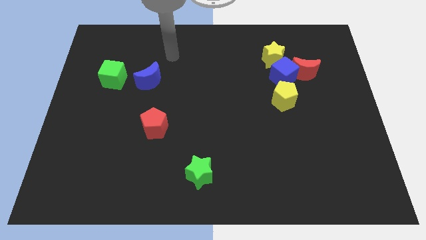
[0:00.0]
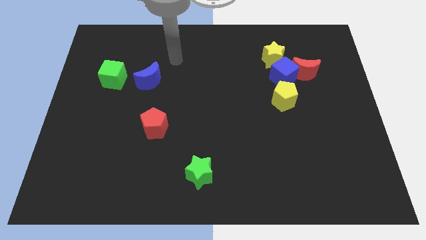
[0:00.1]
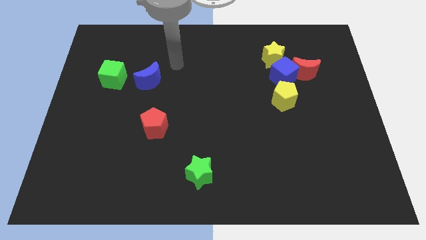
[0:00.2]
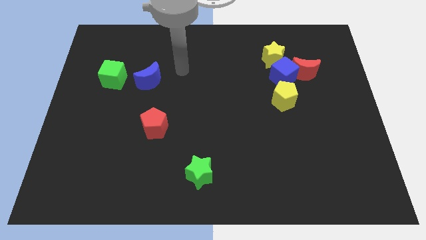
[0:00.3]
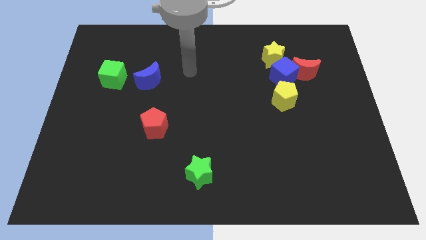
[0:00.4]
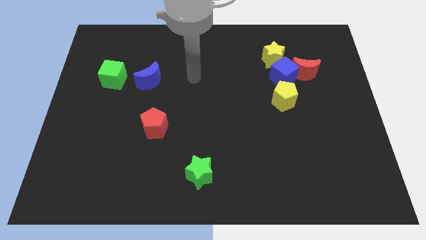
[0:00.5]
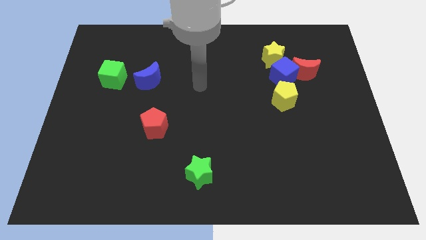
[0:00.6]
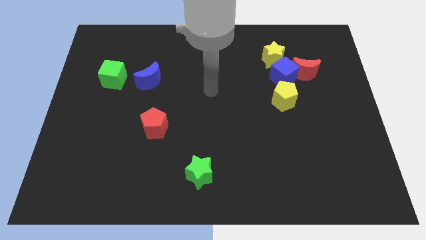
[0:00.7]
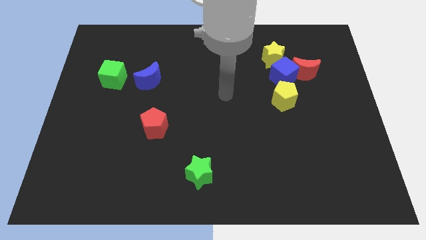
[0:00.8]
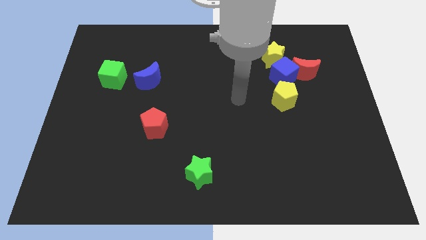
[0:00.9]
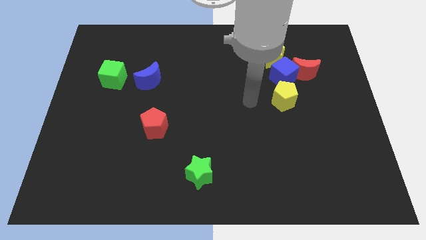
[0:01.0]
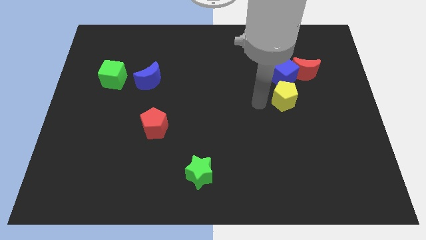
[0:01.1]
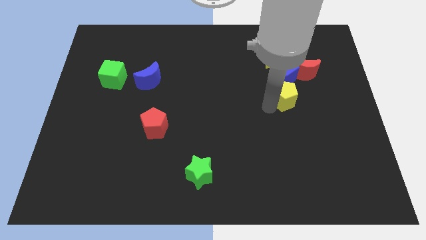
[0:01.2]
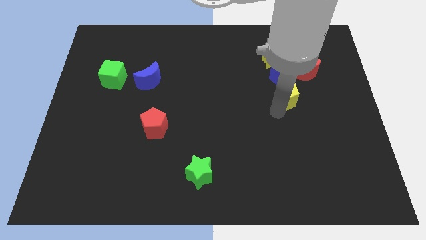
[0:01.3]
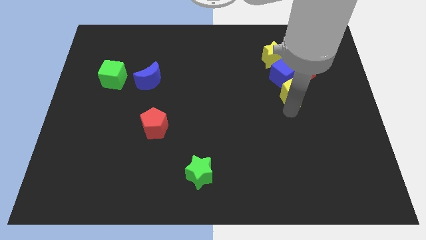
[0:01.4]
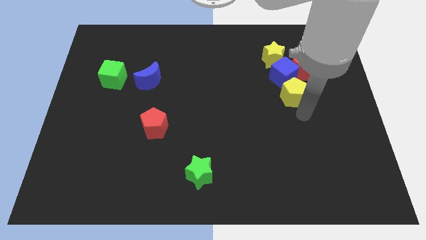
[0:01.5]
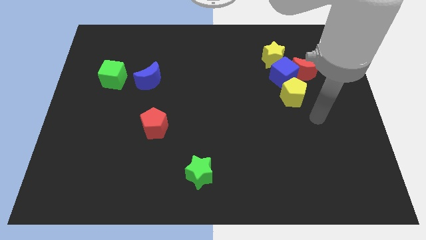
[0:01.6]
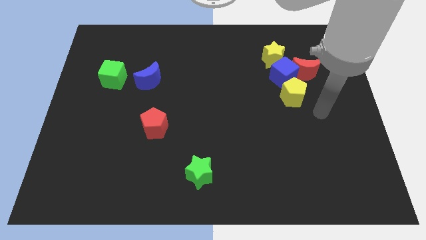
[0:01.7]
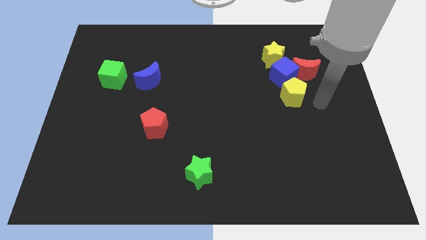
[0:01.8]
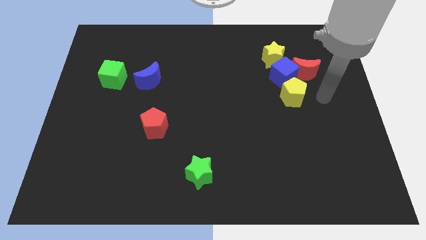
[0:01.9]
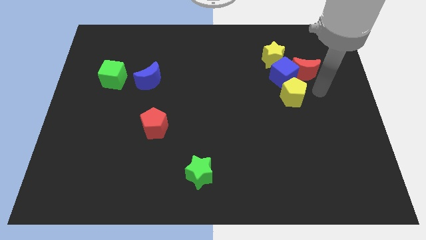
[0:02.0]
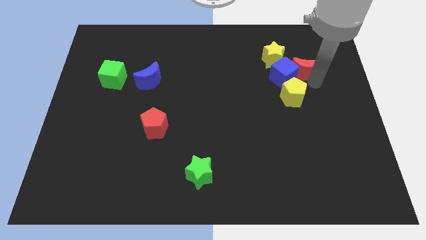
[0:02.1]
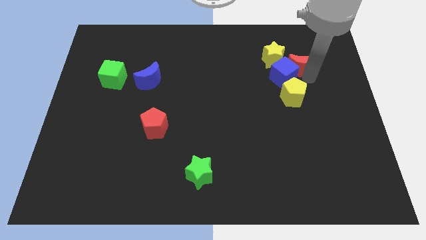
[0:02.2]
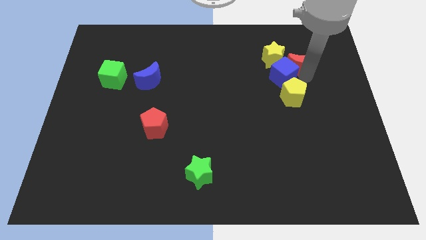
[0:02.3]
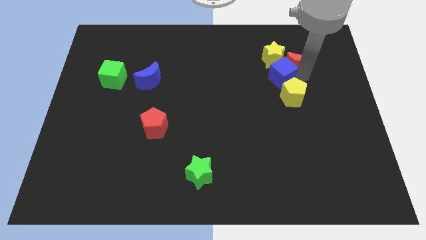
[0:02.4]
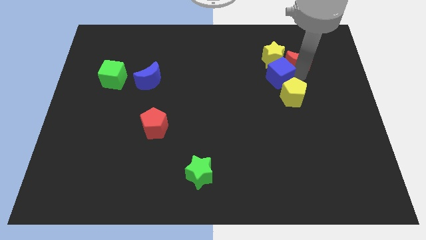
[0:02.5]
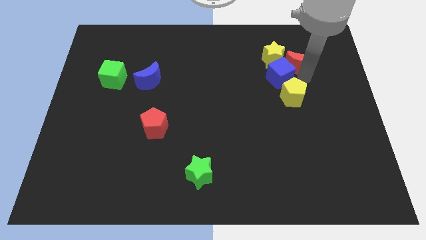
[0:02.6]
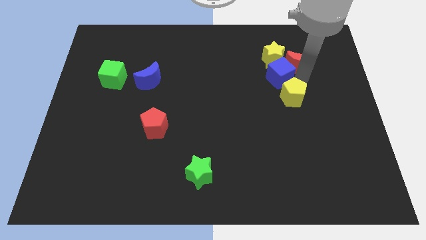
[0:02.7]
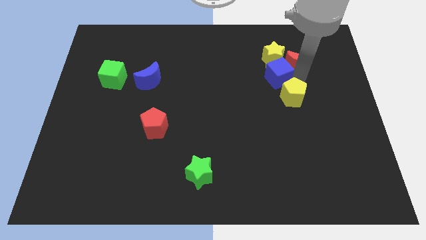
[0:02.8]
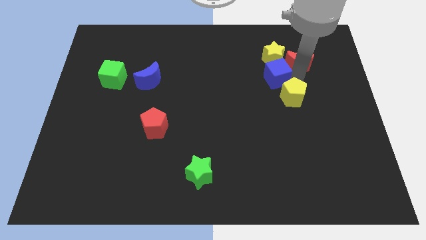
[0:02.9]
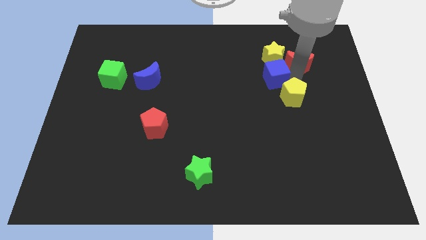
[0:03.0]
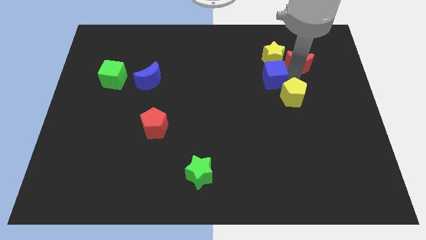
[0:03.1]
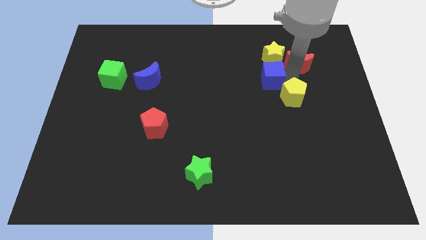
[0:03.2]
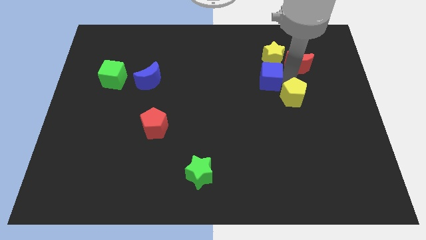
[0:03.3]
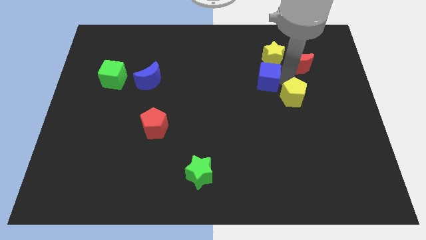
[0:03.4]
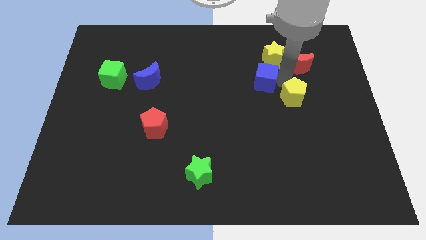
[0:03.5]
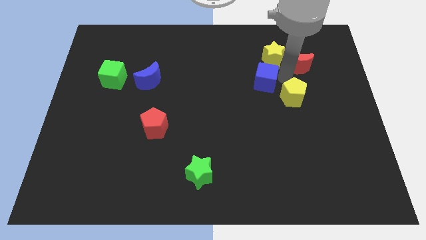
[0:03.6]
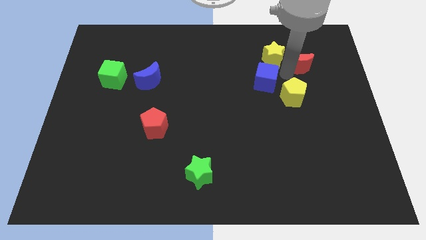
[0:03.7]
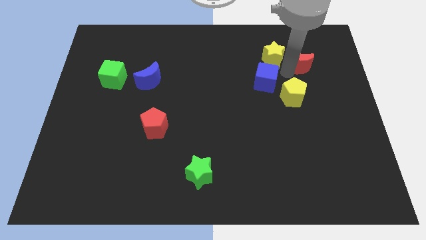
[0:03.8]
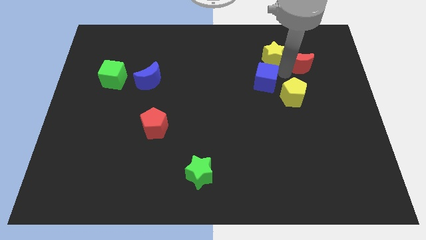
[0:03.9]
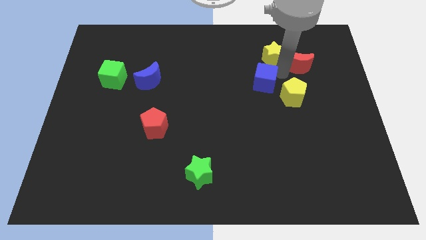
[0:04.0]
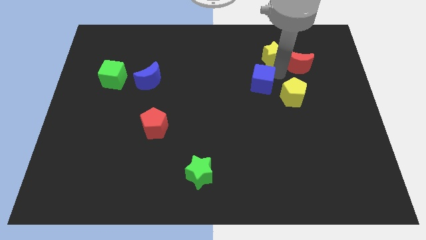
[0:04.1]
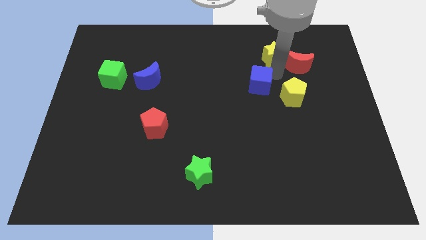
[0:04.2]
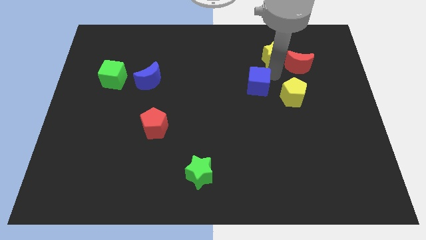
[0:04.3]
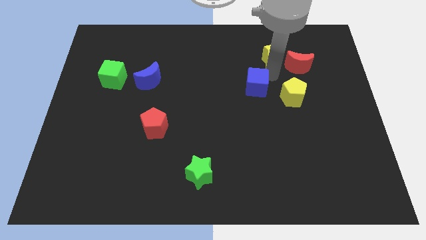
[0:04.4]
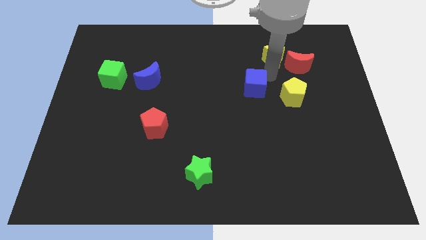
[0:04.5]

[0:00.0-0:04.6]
separate the blue cube from the red moon, yellow star, and yellow pentagon

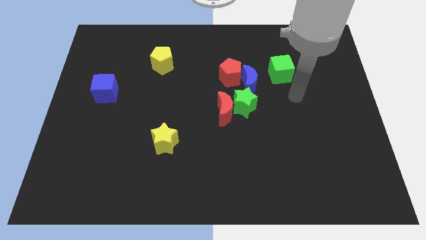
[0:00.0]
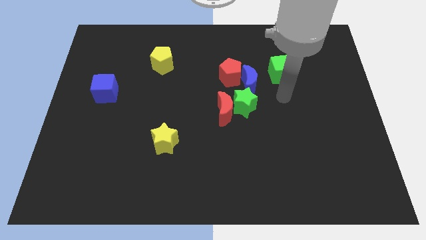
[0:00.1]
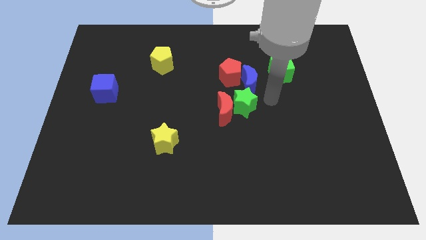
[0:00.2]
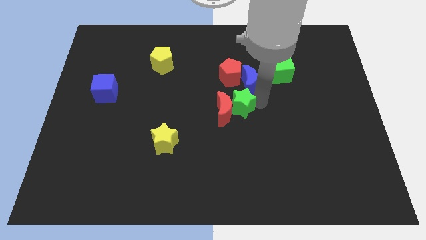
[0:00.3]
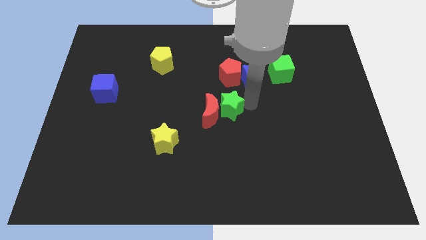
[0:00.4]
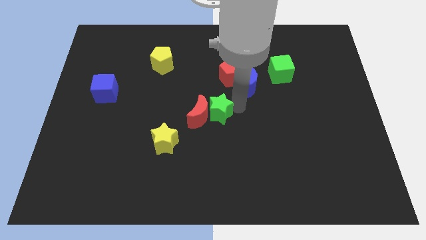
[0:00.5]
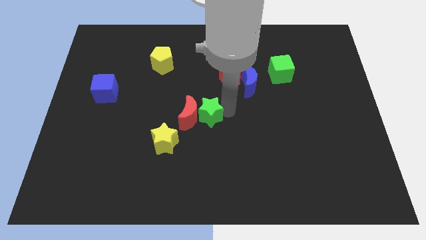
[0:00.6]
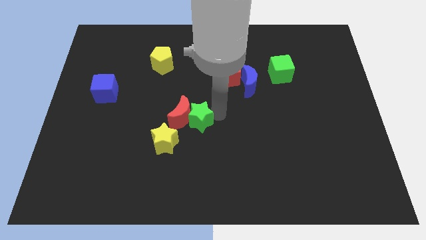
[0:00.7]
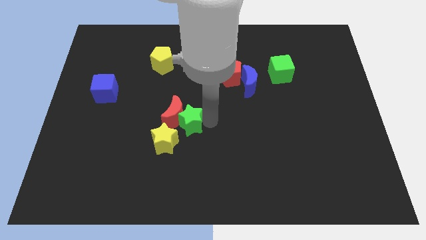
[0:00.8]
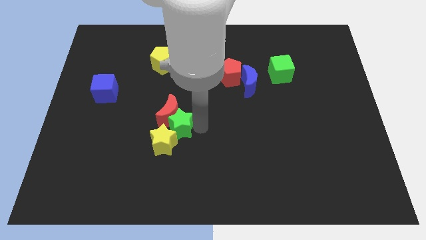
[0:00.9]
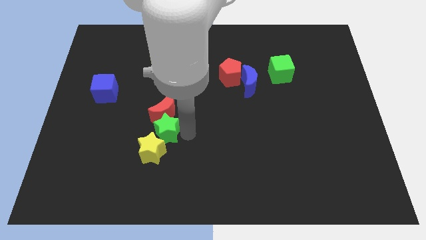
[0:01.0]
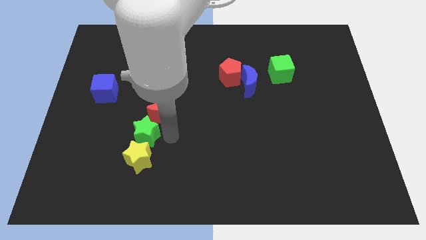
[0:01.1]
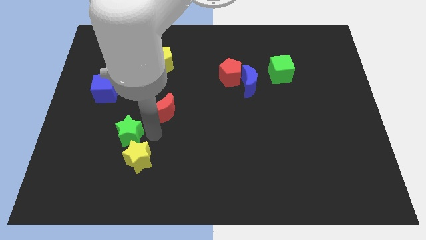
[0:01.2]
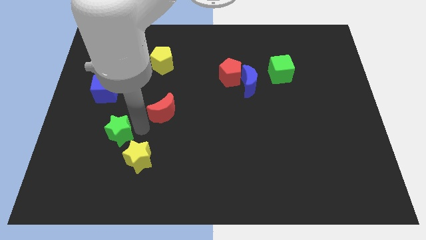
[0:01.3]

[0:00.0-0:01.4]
pull the red moon apart from the green star

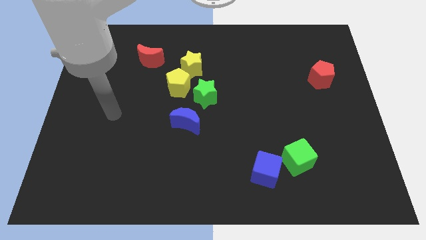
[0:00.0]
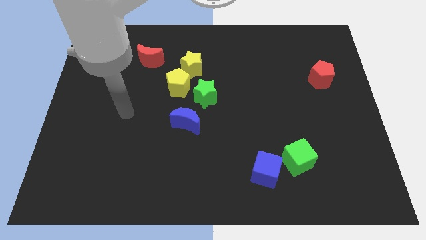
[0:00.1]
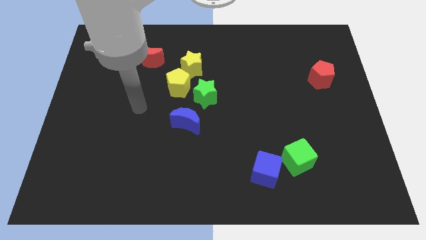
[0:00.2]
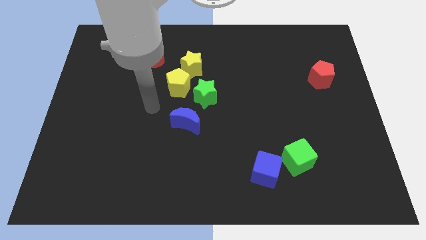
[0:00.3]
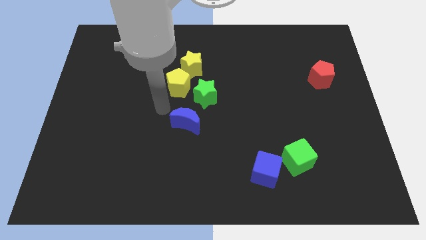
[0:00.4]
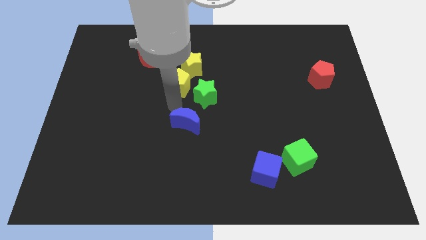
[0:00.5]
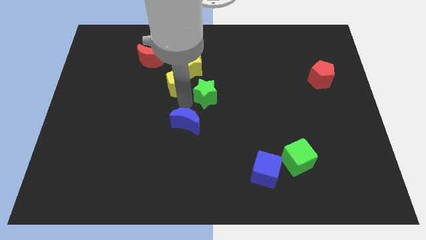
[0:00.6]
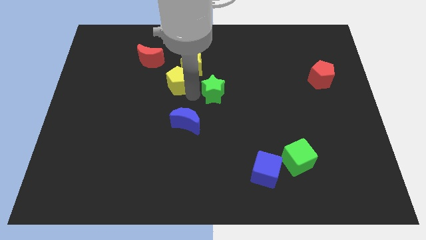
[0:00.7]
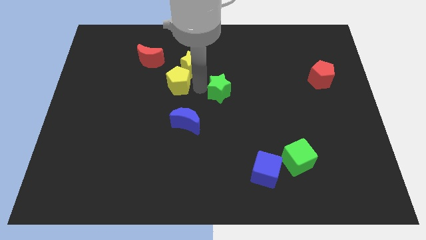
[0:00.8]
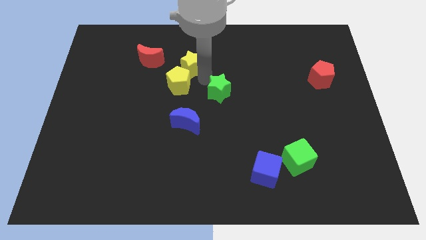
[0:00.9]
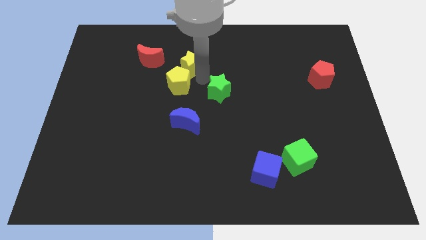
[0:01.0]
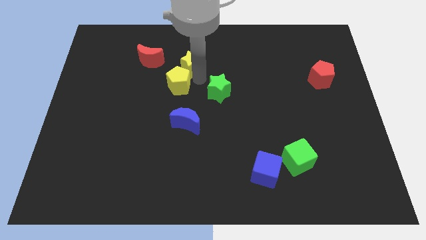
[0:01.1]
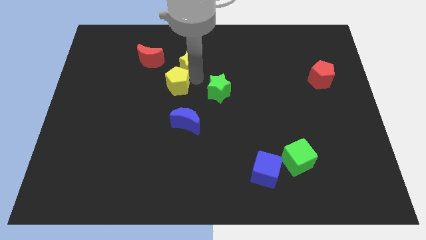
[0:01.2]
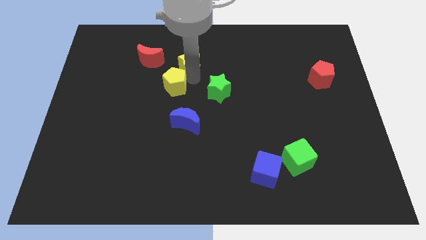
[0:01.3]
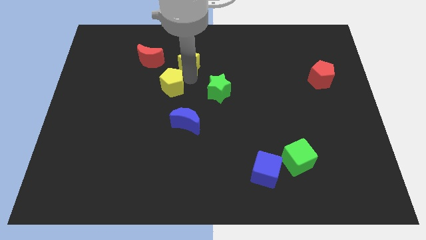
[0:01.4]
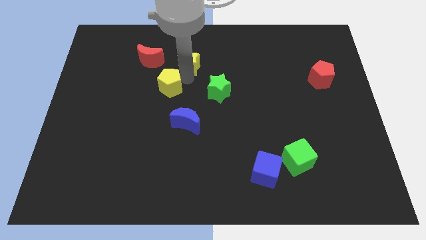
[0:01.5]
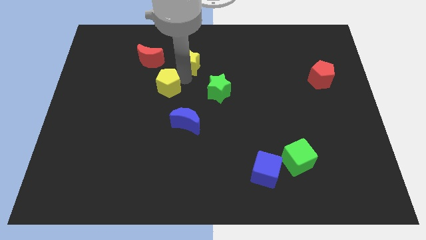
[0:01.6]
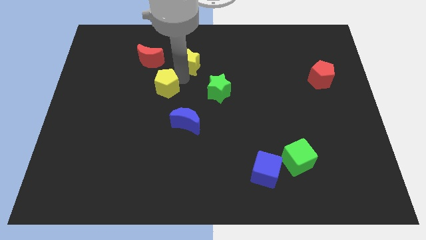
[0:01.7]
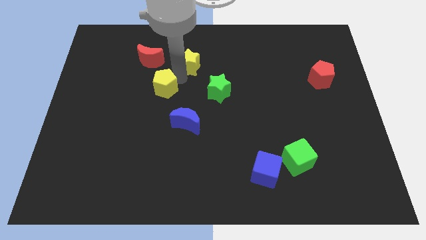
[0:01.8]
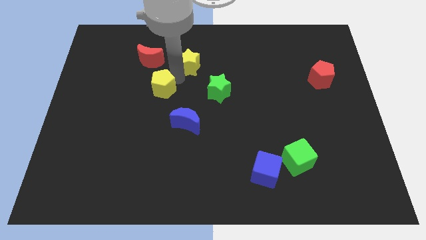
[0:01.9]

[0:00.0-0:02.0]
pull the yellow pentagon apart from the yellow star and green star

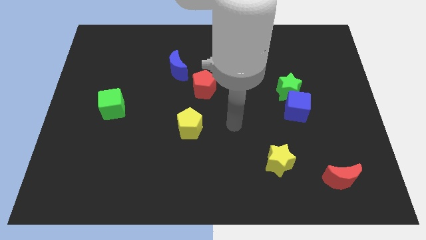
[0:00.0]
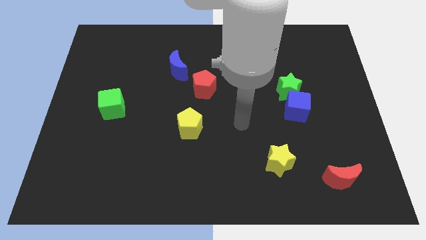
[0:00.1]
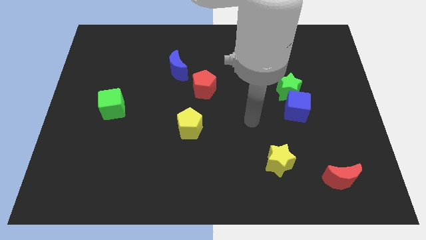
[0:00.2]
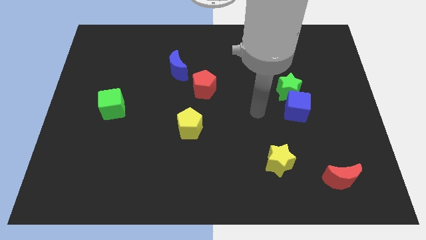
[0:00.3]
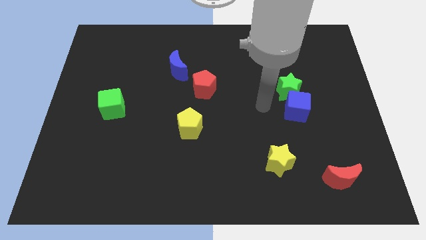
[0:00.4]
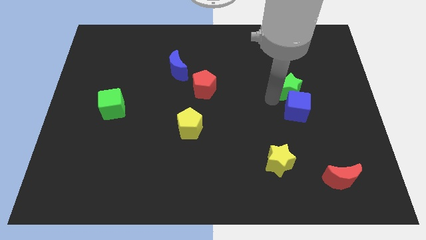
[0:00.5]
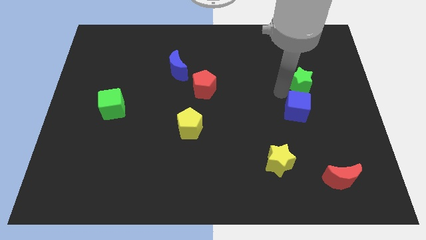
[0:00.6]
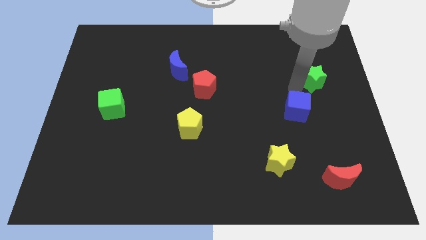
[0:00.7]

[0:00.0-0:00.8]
pull the blue cube apart from the green star

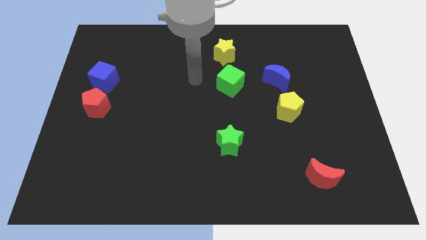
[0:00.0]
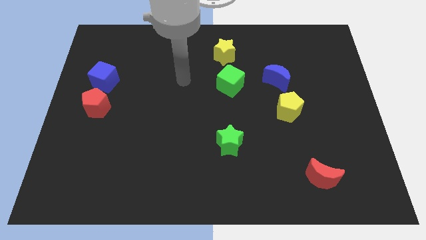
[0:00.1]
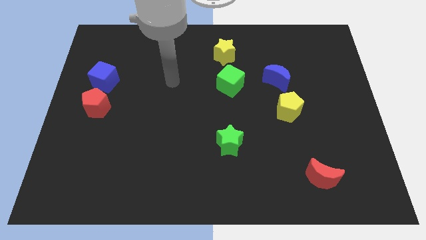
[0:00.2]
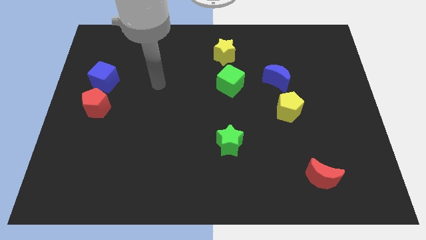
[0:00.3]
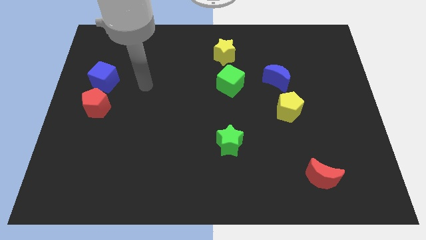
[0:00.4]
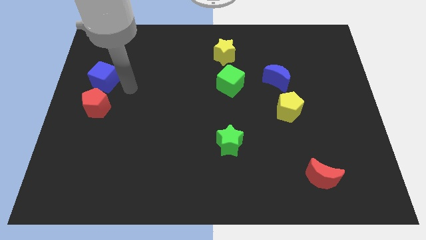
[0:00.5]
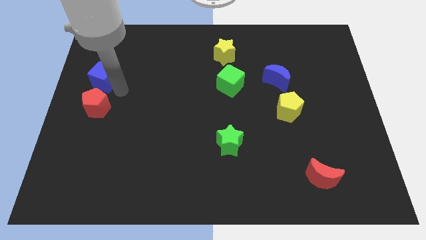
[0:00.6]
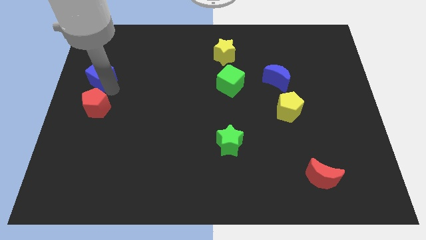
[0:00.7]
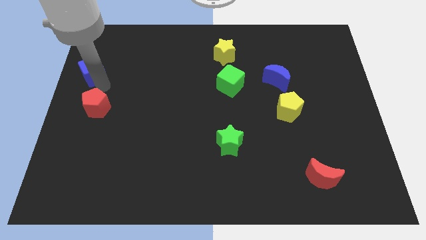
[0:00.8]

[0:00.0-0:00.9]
separate the red pentagon from the blue cube
